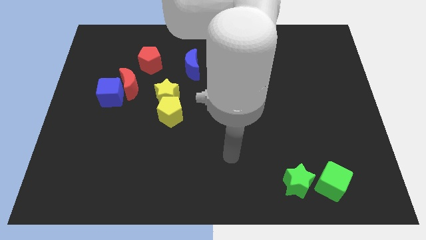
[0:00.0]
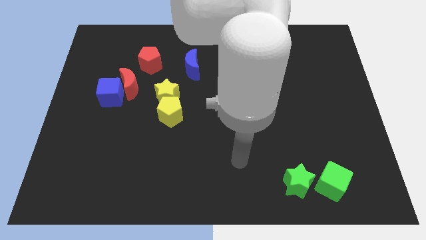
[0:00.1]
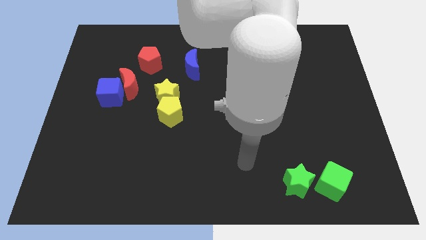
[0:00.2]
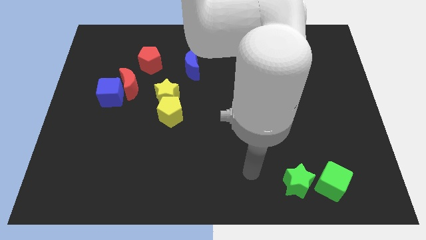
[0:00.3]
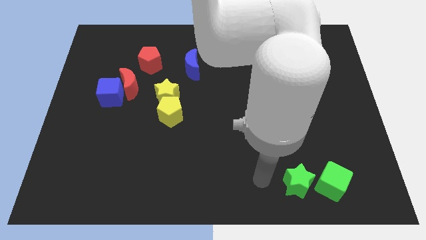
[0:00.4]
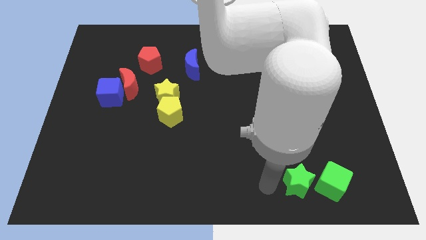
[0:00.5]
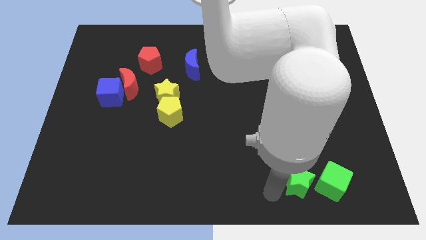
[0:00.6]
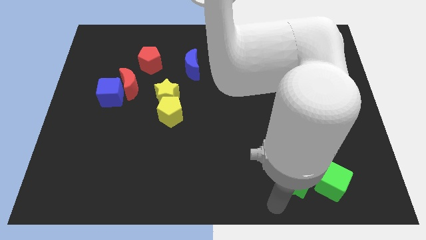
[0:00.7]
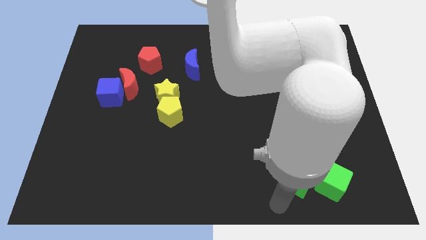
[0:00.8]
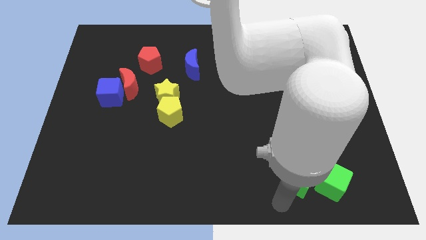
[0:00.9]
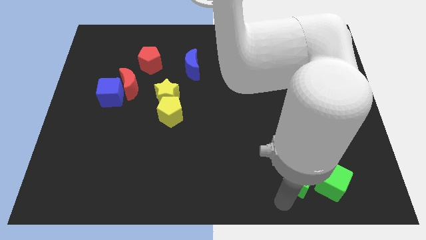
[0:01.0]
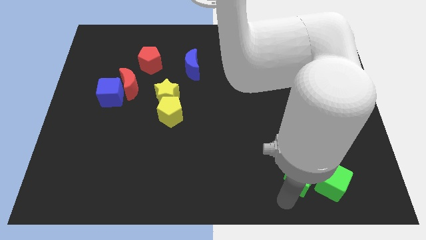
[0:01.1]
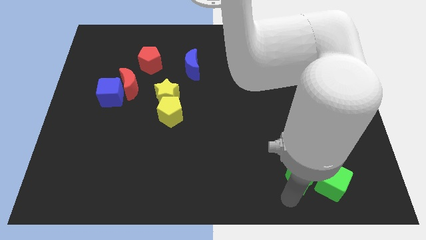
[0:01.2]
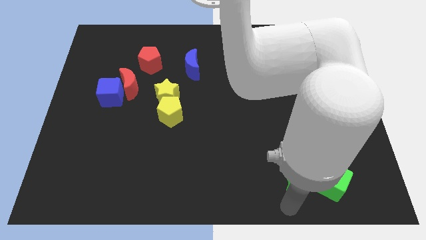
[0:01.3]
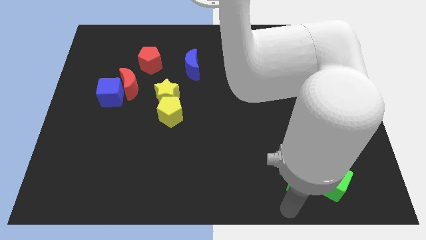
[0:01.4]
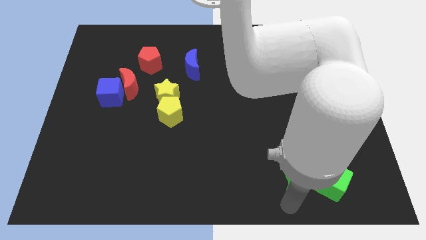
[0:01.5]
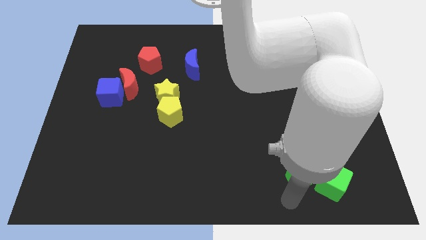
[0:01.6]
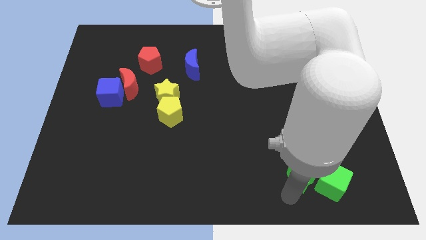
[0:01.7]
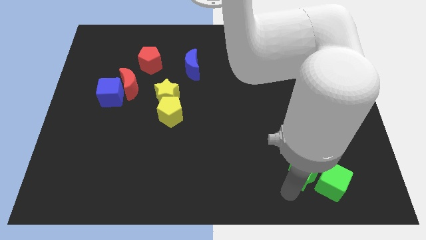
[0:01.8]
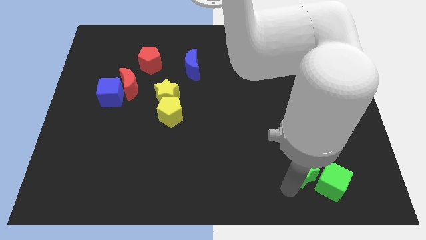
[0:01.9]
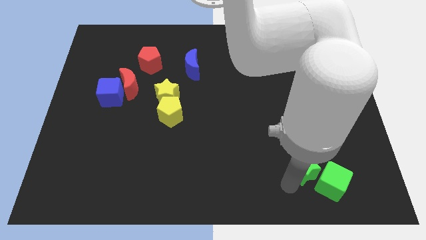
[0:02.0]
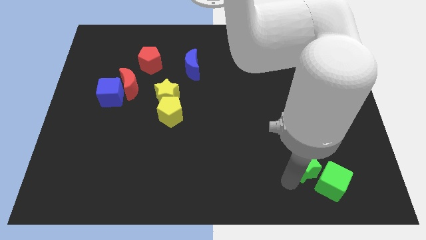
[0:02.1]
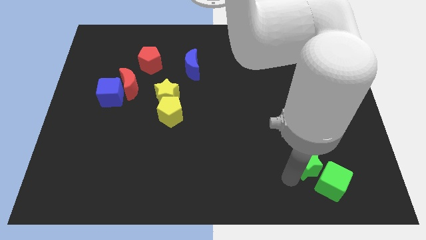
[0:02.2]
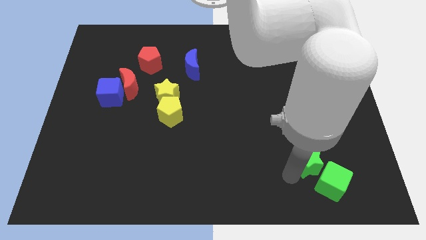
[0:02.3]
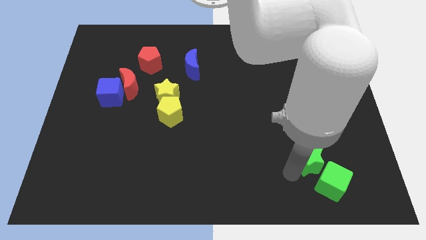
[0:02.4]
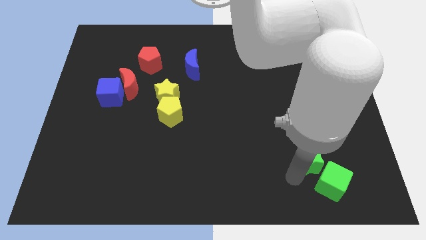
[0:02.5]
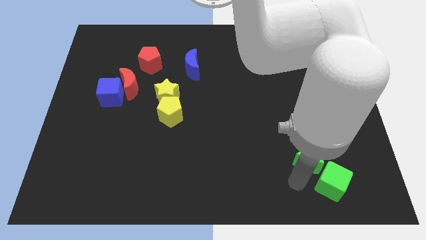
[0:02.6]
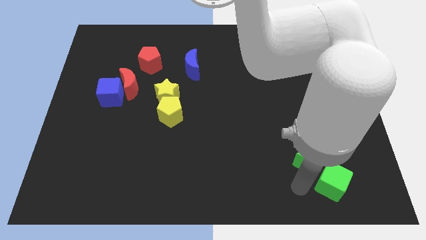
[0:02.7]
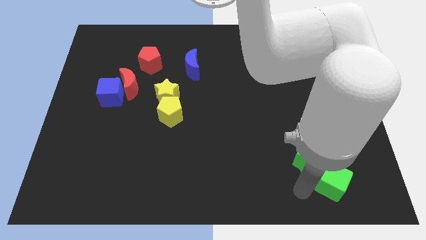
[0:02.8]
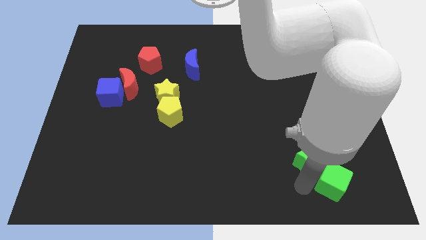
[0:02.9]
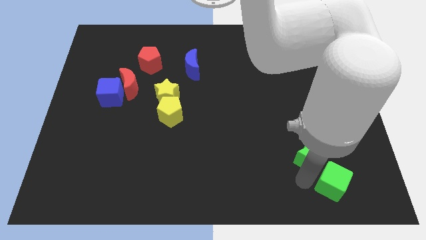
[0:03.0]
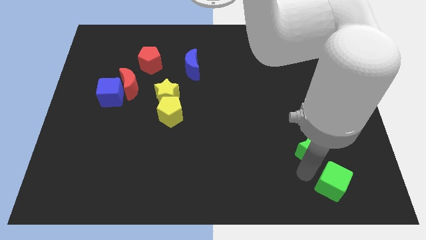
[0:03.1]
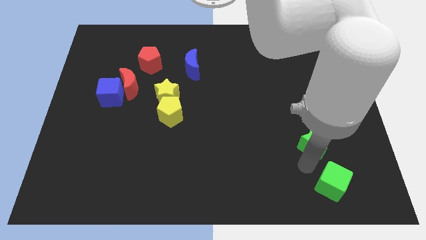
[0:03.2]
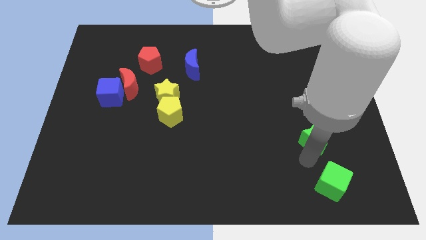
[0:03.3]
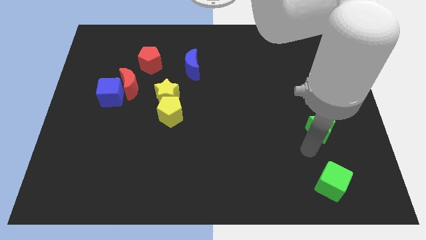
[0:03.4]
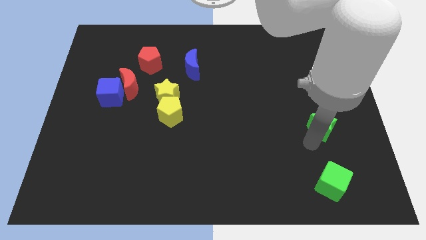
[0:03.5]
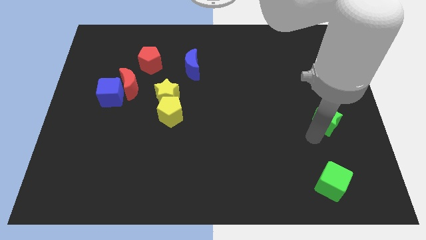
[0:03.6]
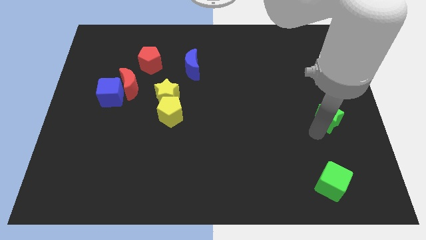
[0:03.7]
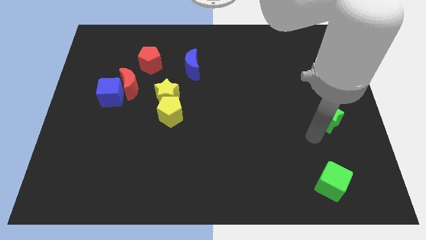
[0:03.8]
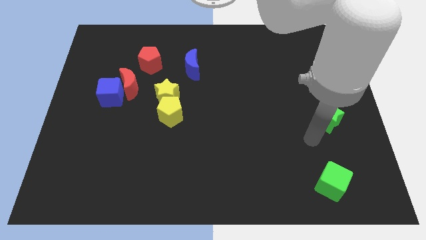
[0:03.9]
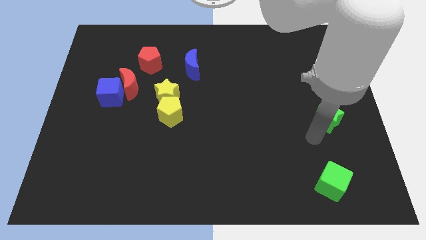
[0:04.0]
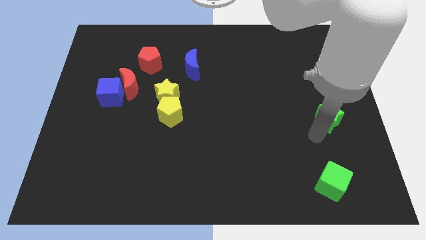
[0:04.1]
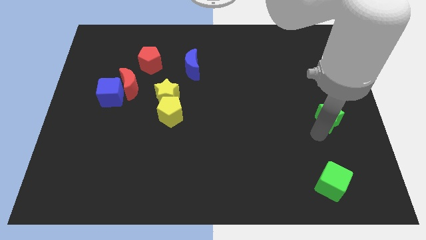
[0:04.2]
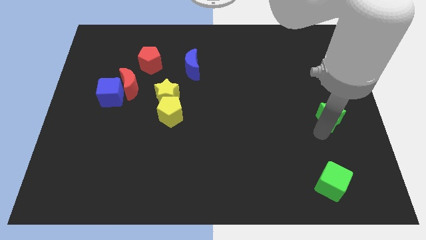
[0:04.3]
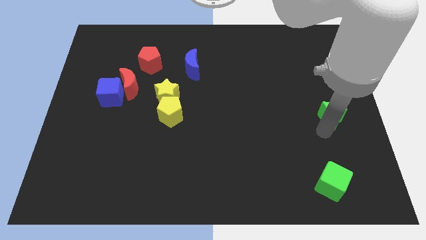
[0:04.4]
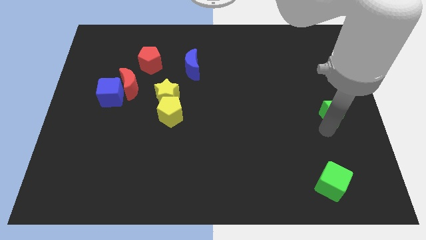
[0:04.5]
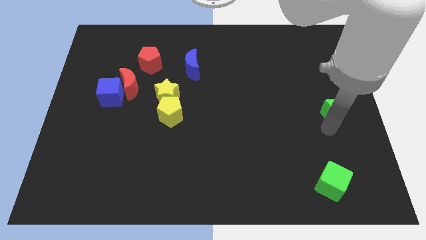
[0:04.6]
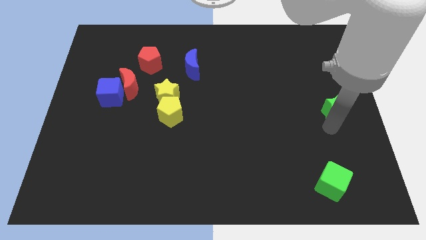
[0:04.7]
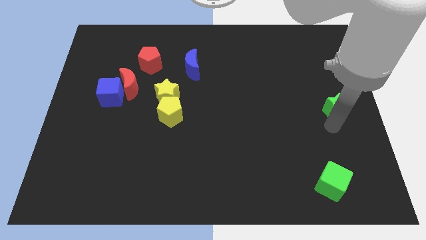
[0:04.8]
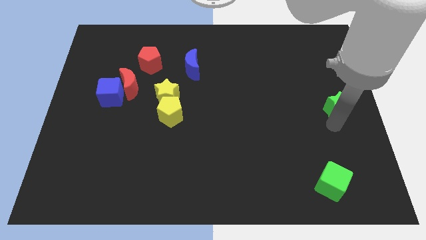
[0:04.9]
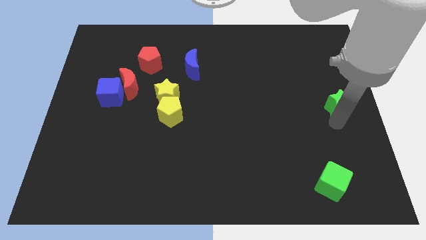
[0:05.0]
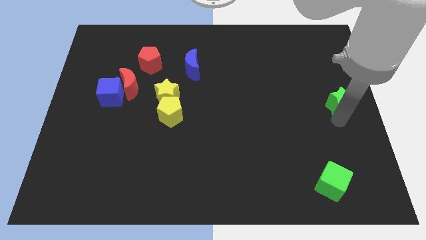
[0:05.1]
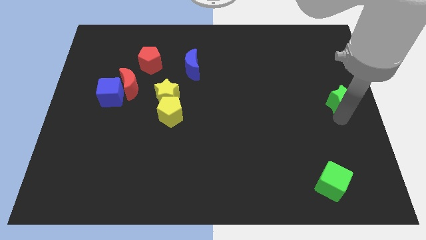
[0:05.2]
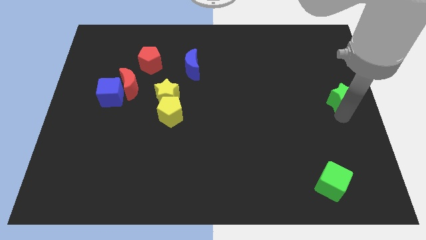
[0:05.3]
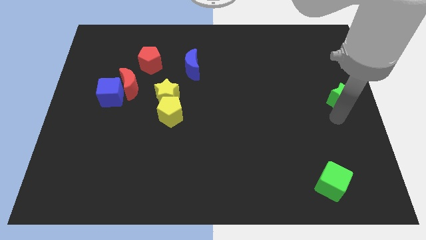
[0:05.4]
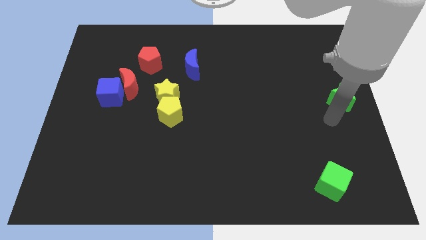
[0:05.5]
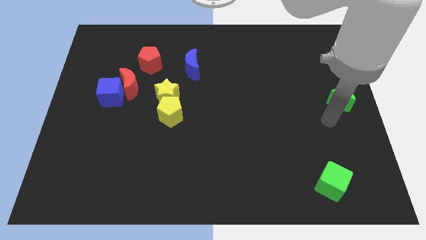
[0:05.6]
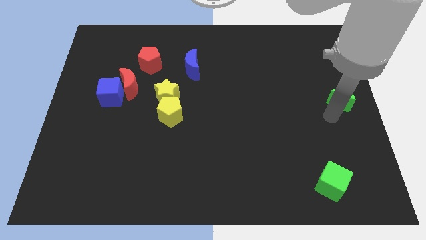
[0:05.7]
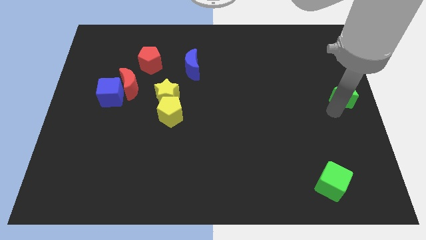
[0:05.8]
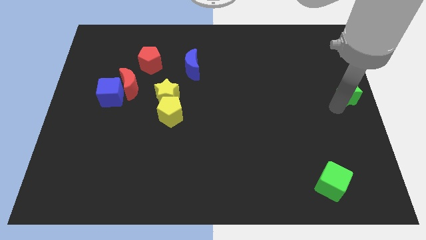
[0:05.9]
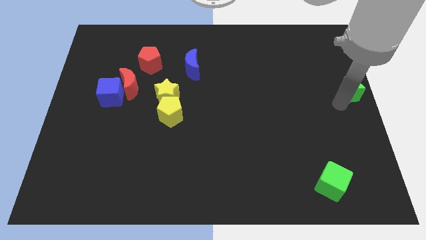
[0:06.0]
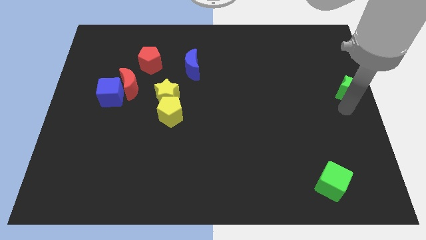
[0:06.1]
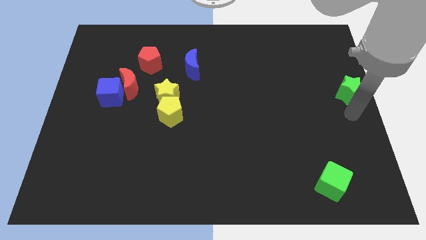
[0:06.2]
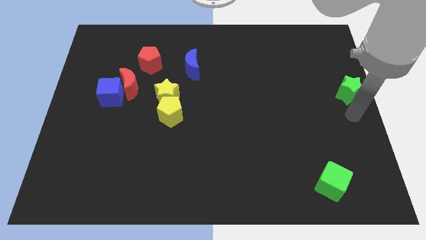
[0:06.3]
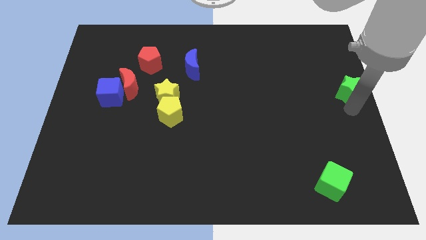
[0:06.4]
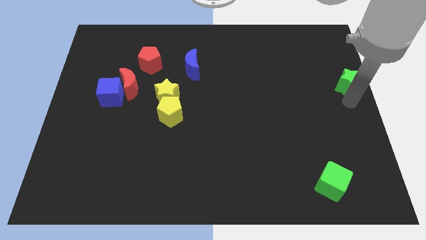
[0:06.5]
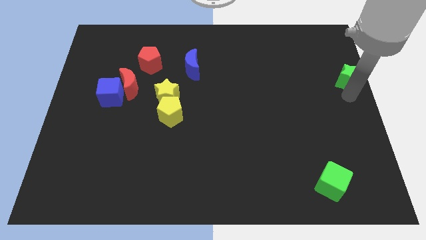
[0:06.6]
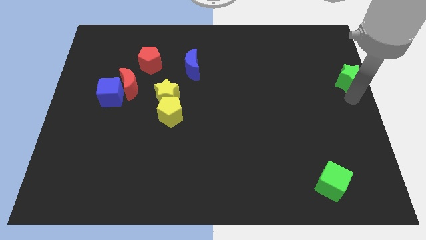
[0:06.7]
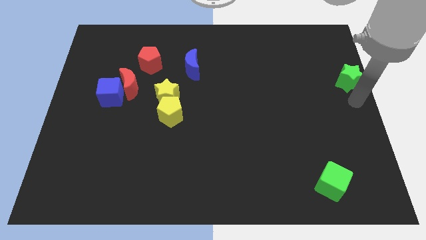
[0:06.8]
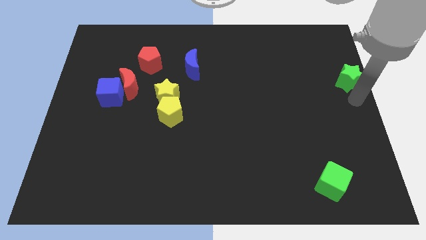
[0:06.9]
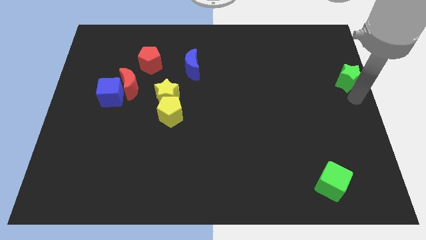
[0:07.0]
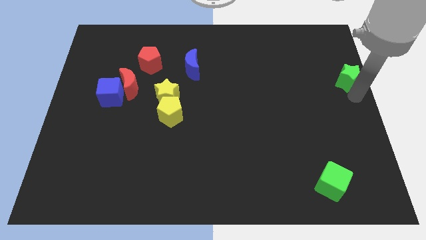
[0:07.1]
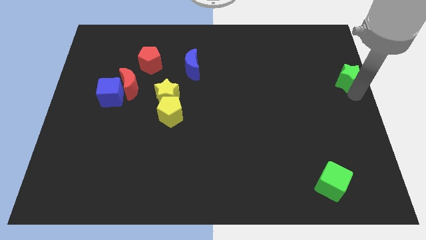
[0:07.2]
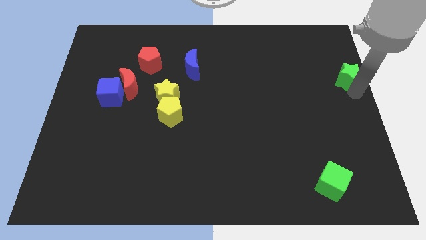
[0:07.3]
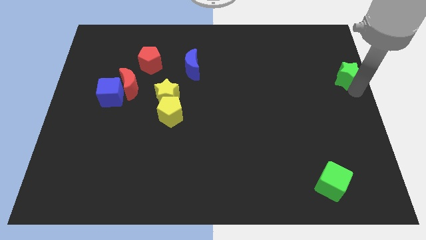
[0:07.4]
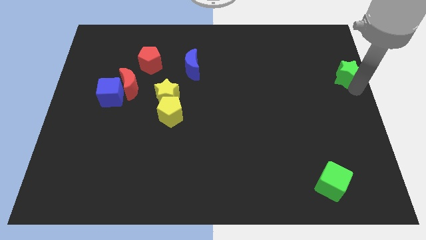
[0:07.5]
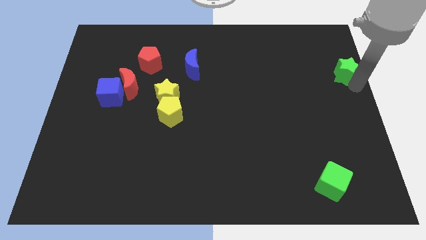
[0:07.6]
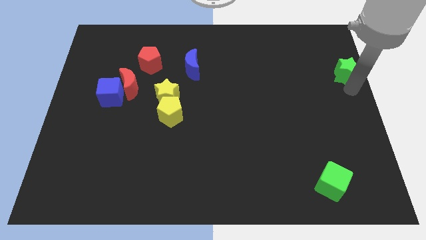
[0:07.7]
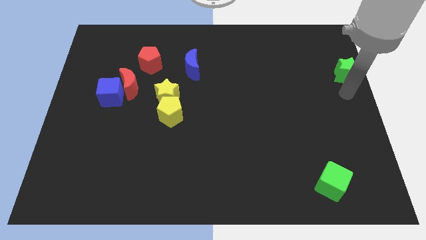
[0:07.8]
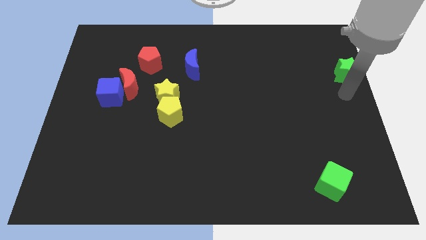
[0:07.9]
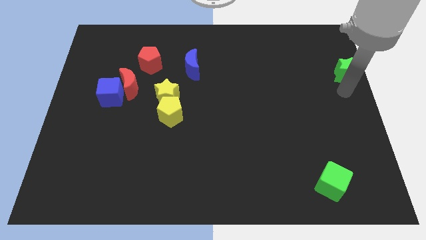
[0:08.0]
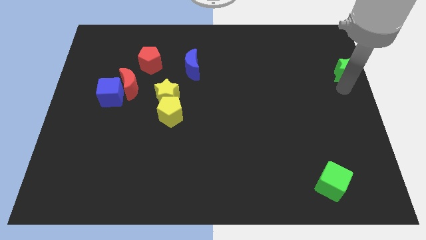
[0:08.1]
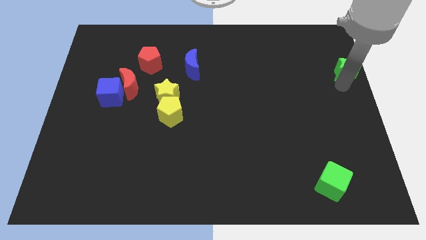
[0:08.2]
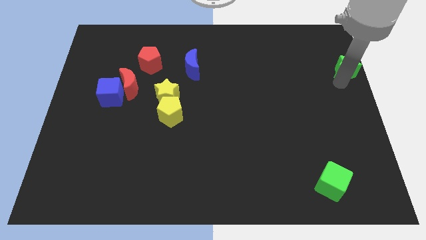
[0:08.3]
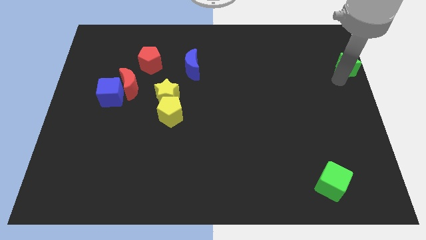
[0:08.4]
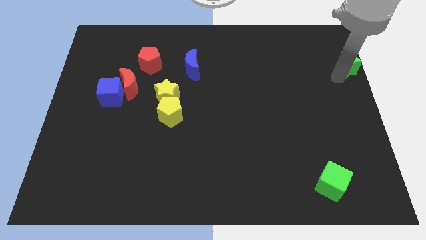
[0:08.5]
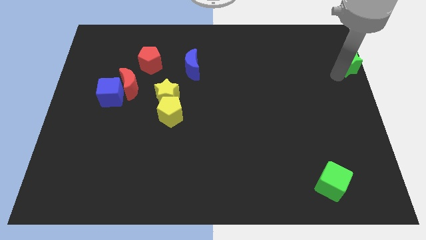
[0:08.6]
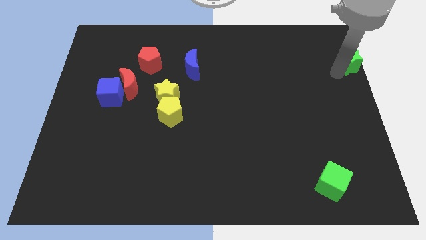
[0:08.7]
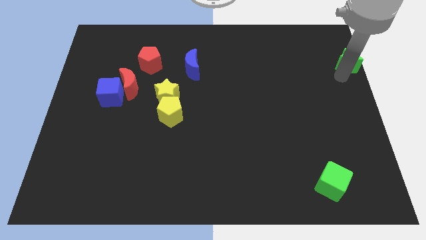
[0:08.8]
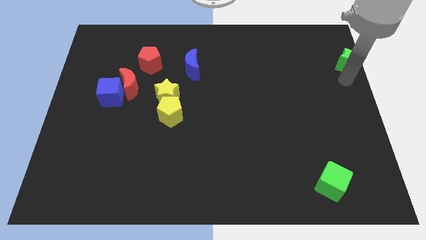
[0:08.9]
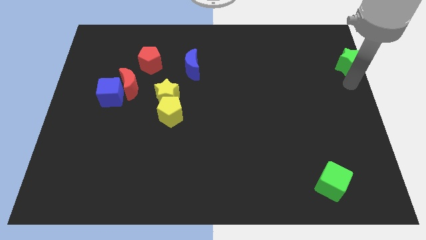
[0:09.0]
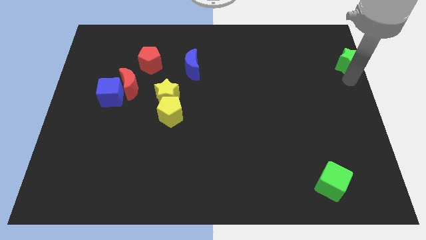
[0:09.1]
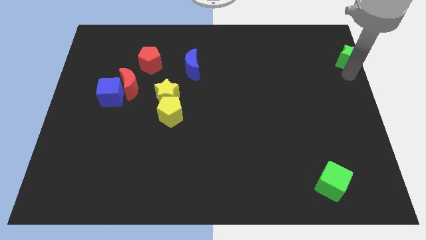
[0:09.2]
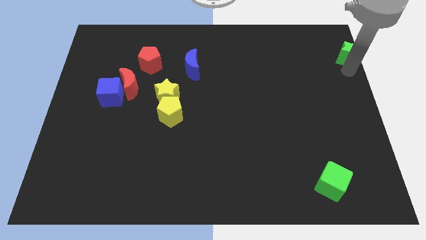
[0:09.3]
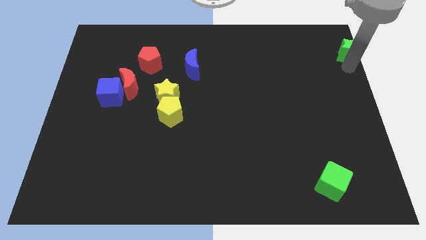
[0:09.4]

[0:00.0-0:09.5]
push the green star to the top right of the board
